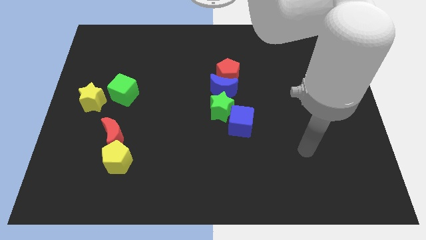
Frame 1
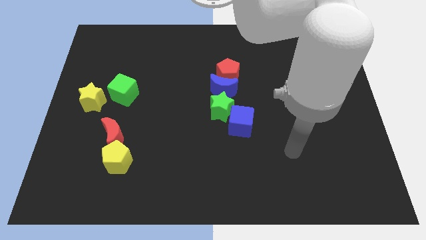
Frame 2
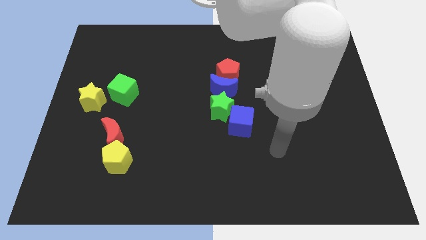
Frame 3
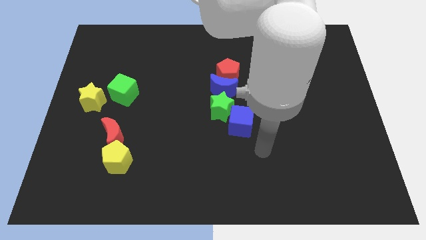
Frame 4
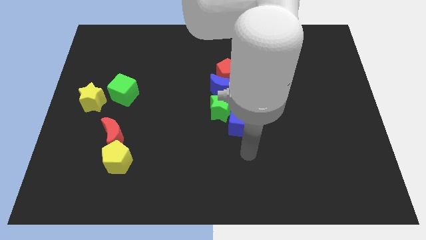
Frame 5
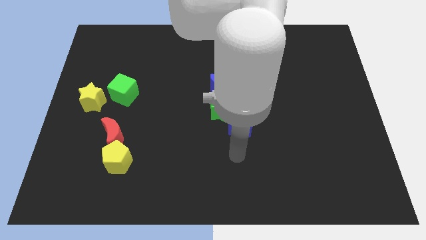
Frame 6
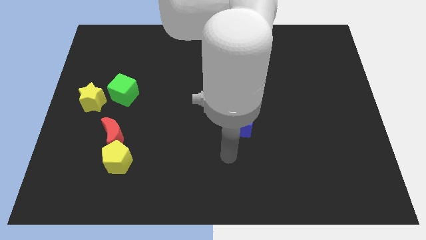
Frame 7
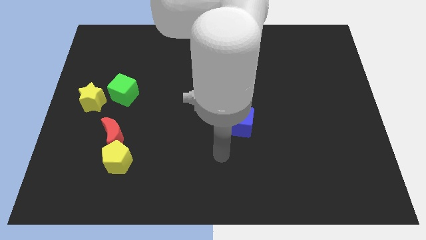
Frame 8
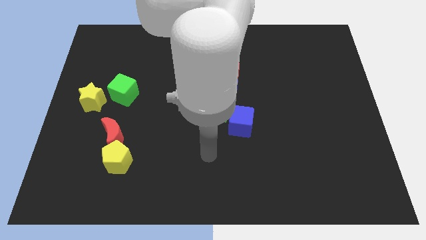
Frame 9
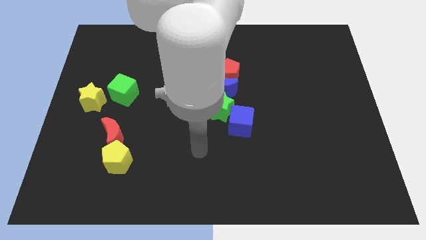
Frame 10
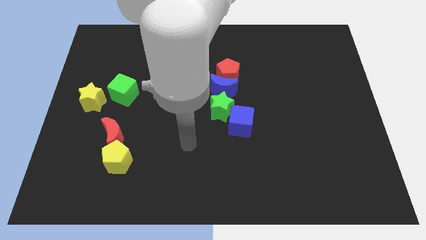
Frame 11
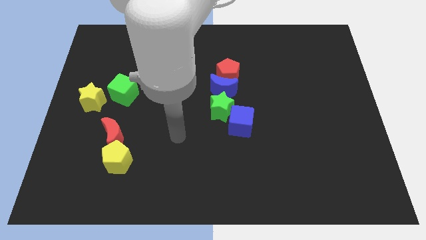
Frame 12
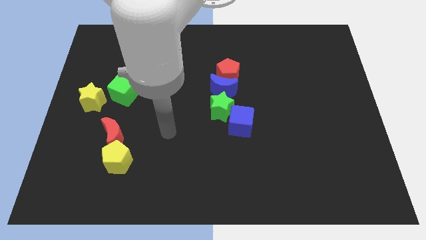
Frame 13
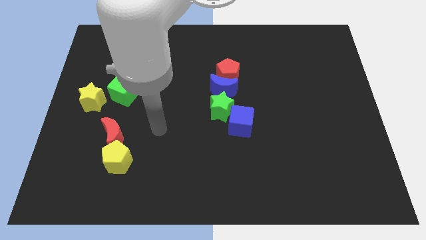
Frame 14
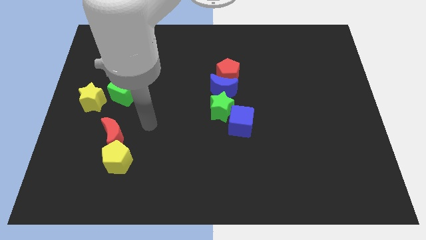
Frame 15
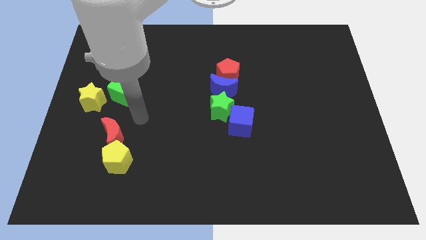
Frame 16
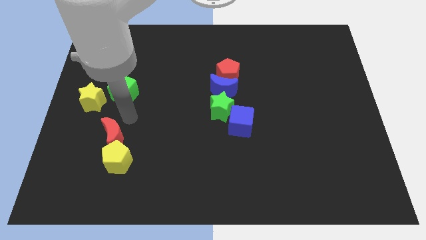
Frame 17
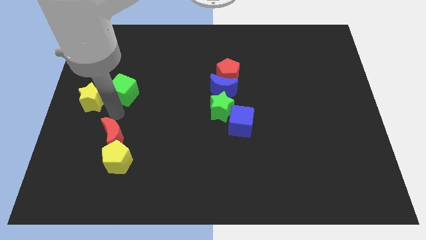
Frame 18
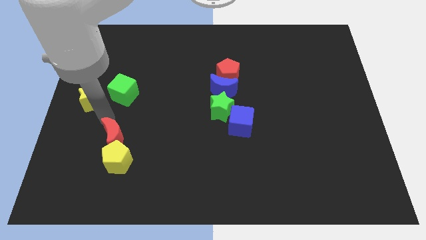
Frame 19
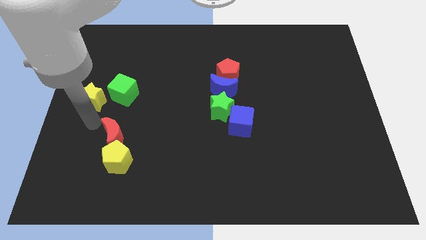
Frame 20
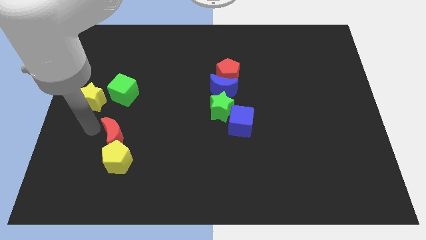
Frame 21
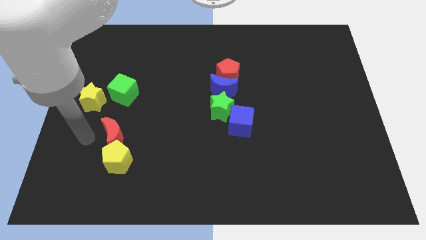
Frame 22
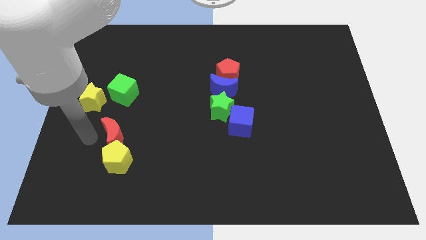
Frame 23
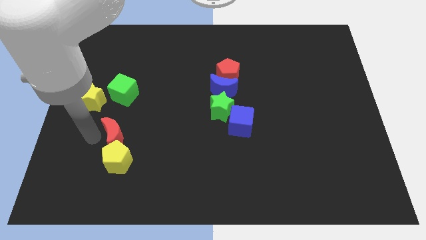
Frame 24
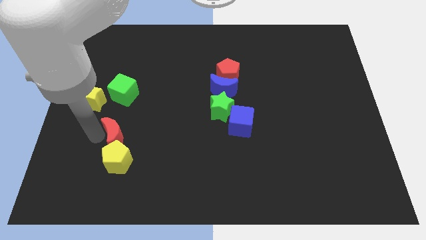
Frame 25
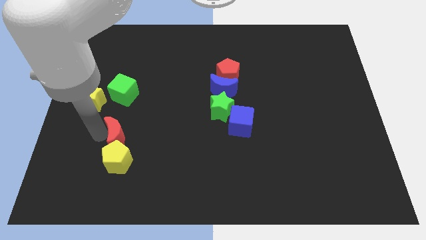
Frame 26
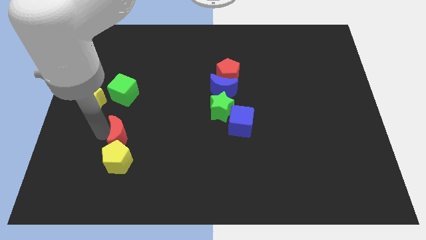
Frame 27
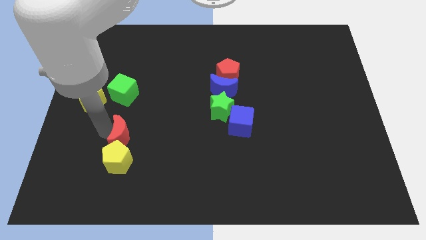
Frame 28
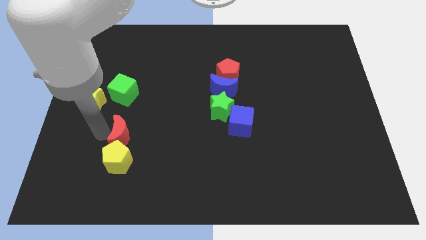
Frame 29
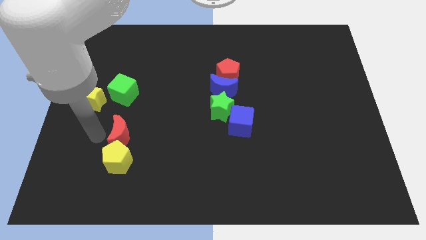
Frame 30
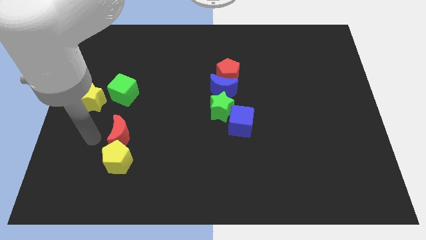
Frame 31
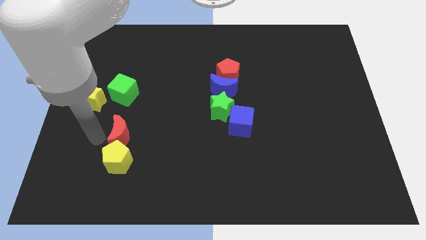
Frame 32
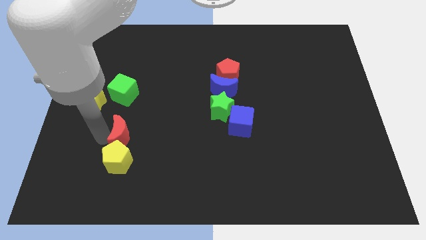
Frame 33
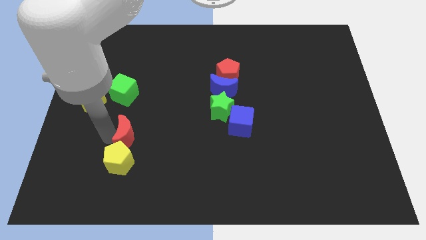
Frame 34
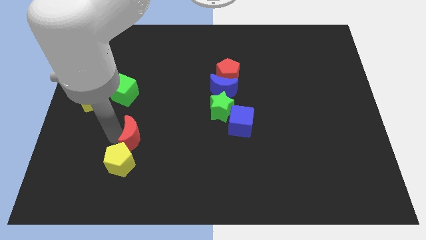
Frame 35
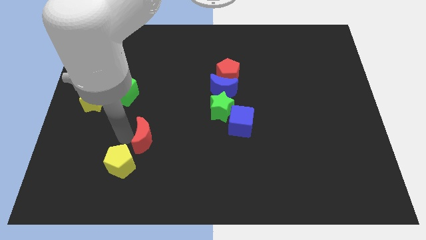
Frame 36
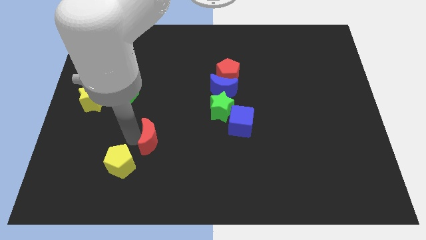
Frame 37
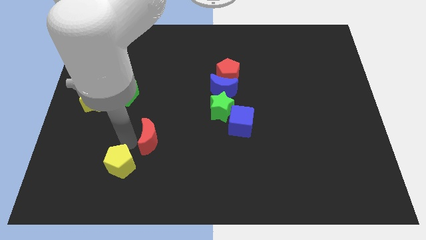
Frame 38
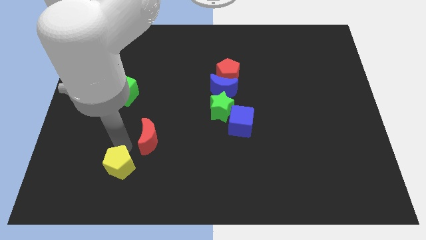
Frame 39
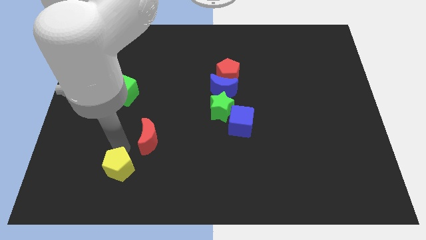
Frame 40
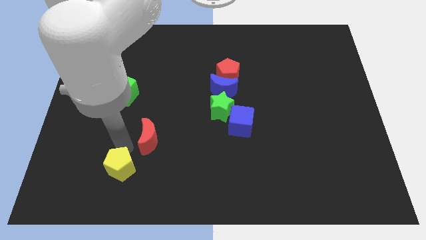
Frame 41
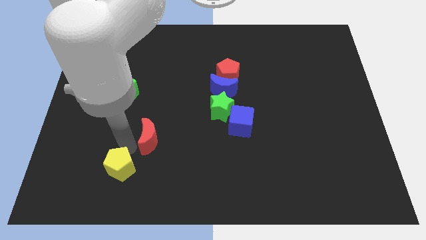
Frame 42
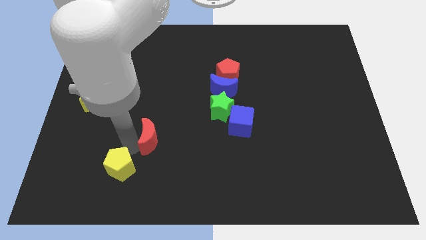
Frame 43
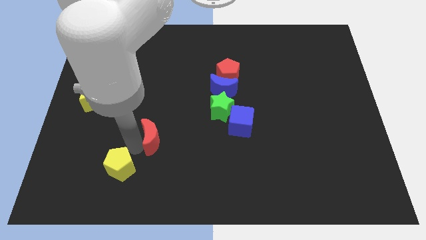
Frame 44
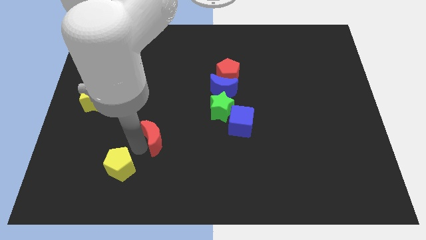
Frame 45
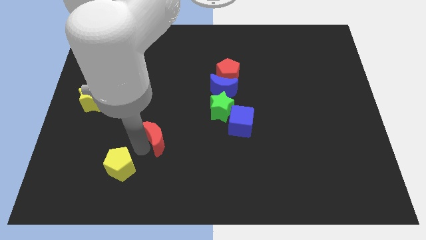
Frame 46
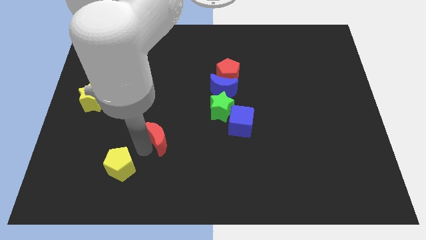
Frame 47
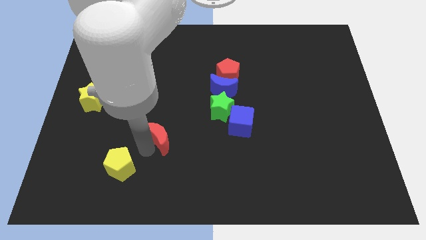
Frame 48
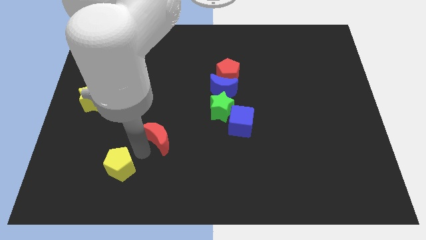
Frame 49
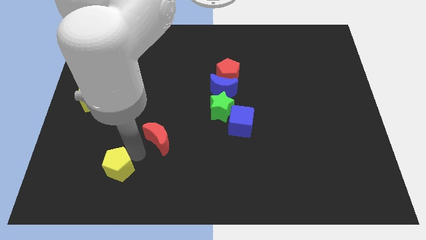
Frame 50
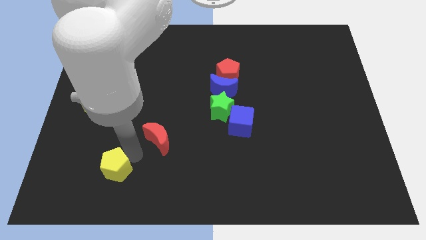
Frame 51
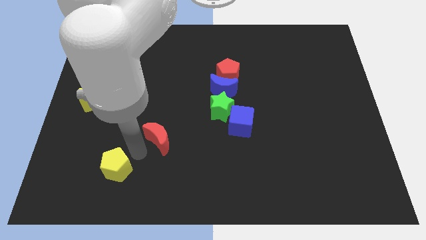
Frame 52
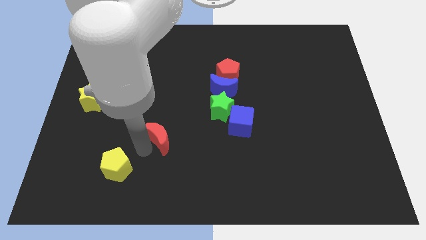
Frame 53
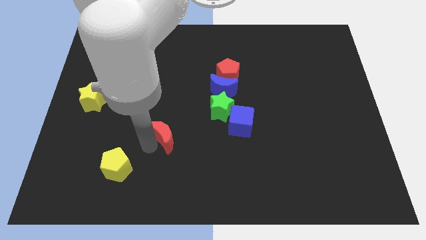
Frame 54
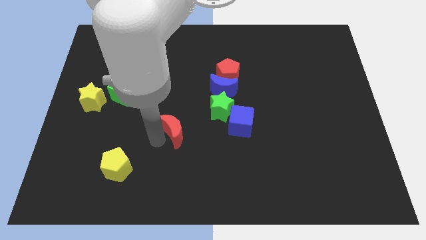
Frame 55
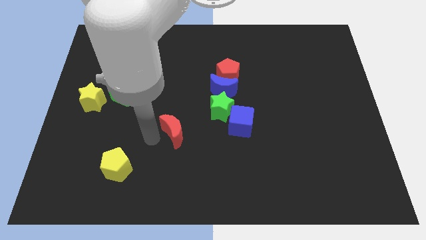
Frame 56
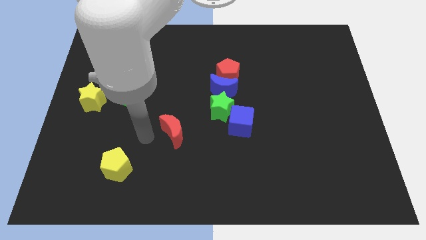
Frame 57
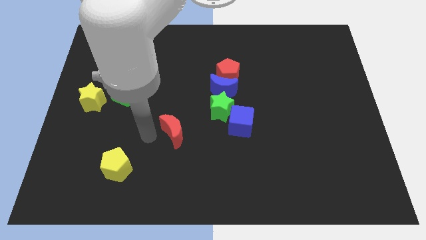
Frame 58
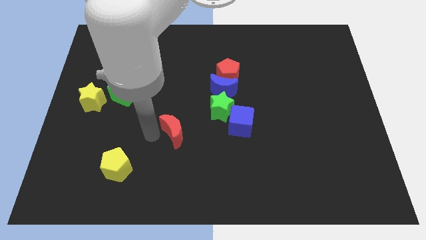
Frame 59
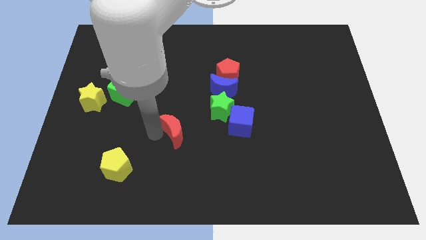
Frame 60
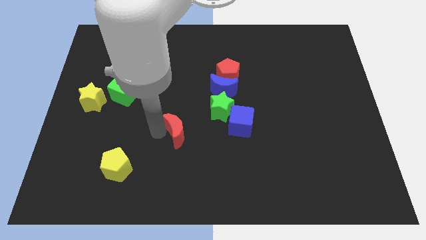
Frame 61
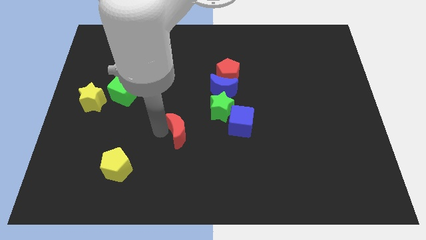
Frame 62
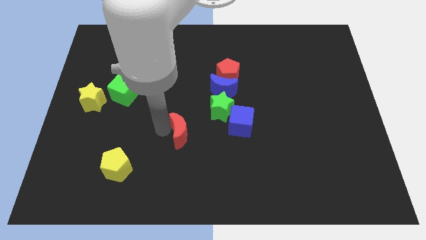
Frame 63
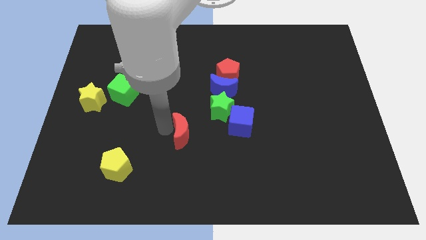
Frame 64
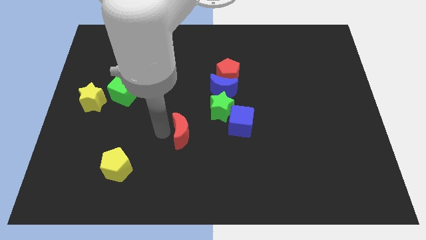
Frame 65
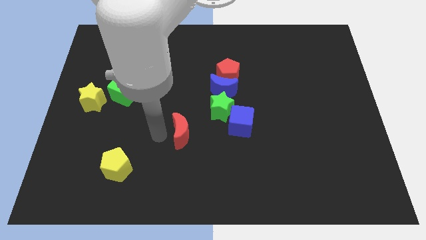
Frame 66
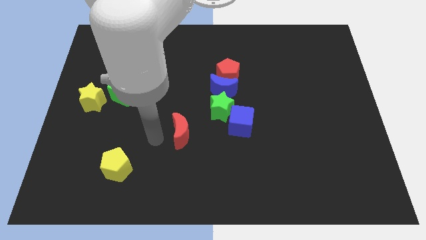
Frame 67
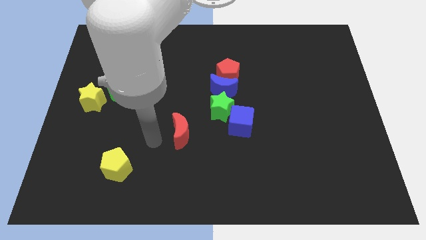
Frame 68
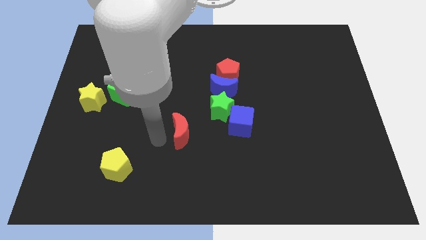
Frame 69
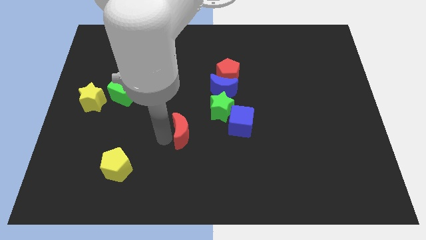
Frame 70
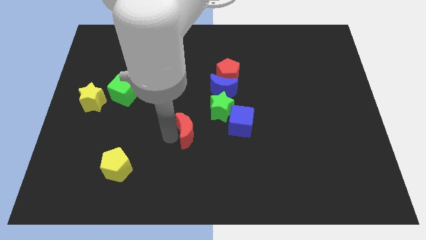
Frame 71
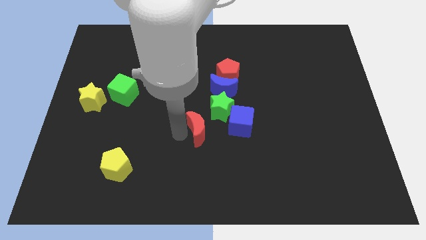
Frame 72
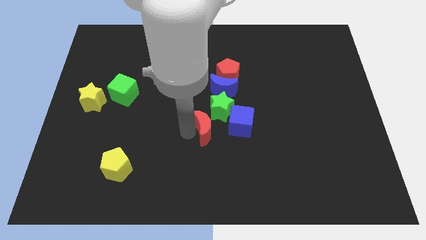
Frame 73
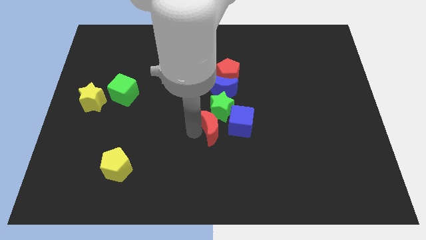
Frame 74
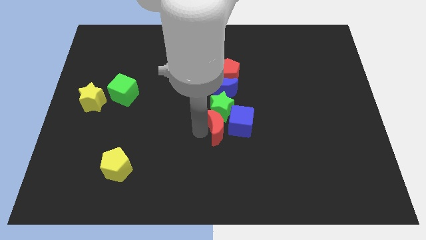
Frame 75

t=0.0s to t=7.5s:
put the red moon towards the blue cube
